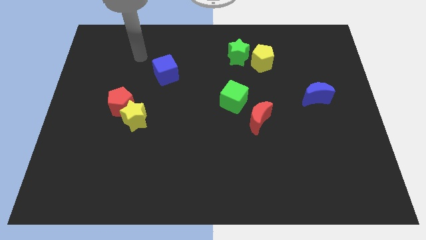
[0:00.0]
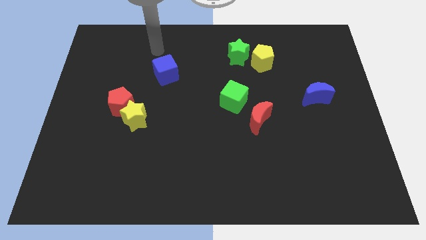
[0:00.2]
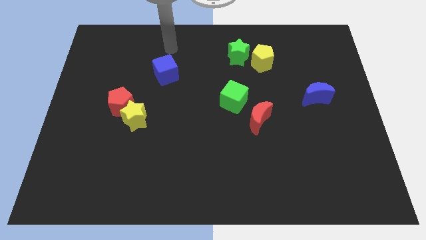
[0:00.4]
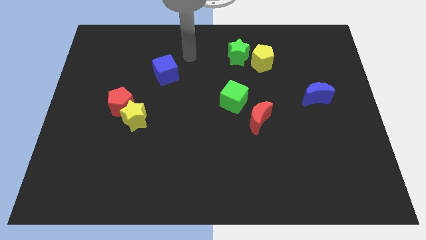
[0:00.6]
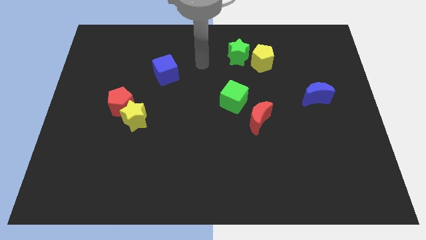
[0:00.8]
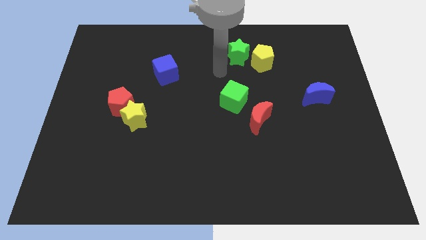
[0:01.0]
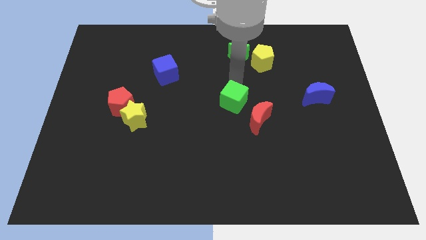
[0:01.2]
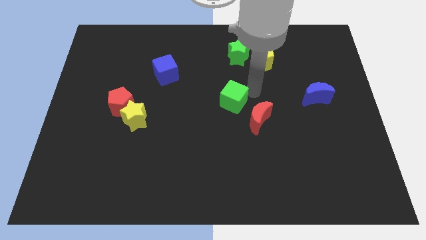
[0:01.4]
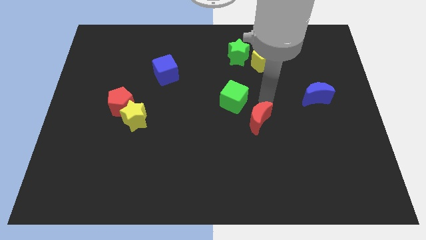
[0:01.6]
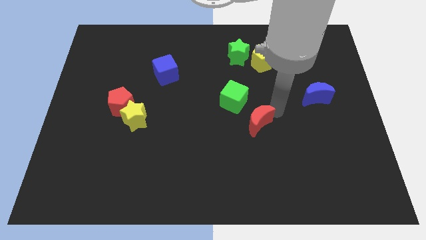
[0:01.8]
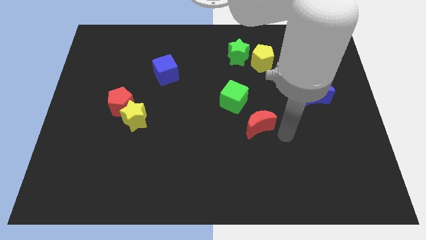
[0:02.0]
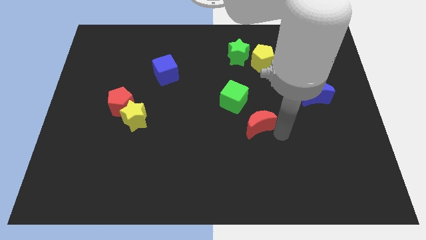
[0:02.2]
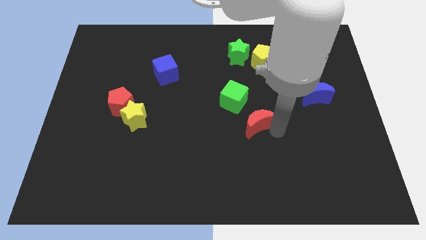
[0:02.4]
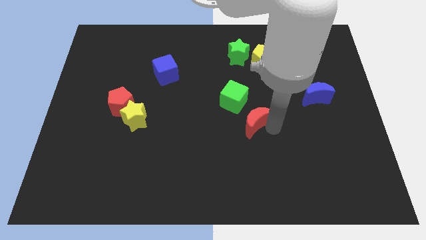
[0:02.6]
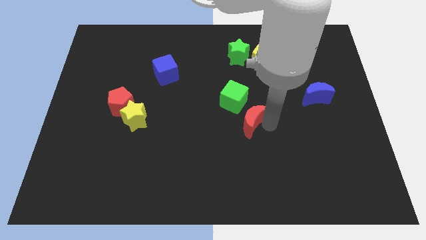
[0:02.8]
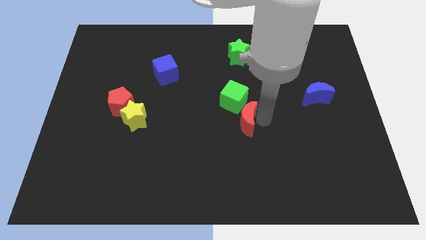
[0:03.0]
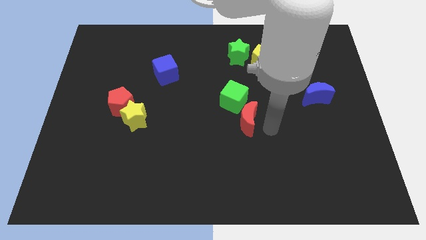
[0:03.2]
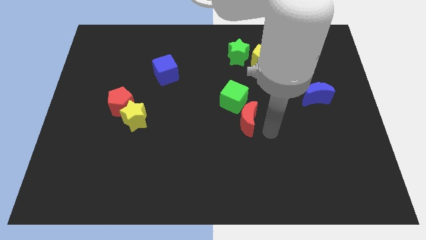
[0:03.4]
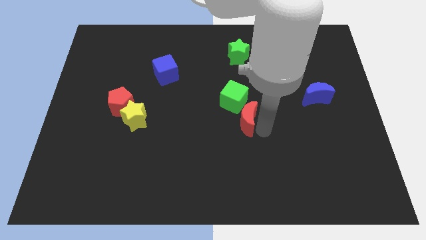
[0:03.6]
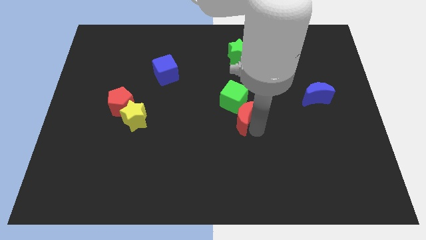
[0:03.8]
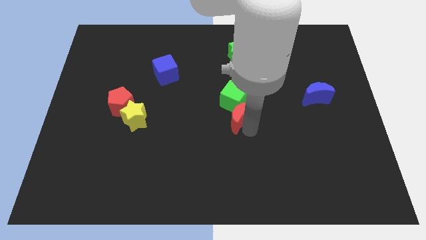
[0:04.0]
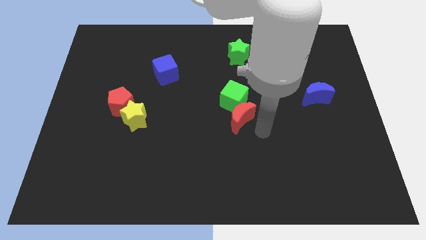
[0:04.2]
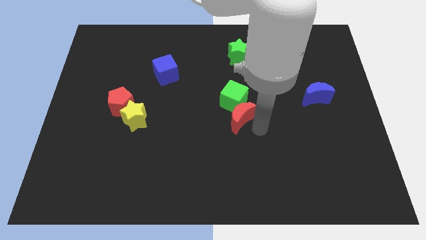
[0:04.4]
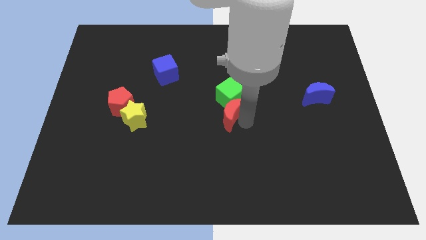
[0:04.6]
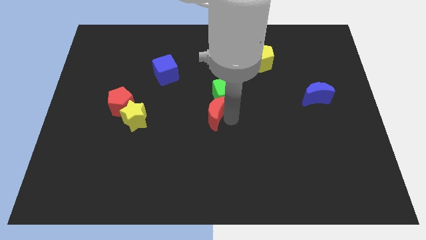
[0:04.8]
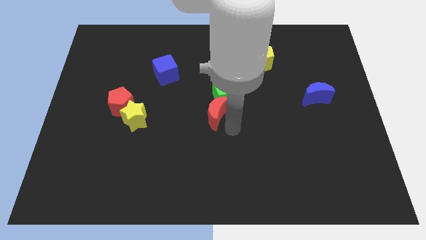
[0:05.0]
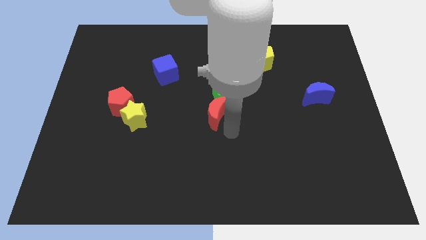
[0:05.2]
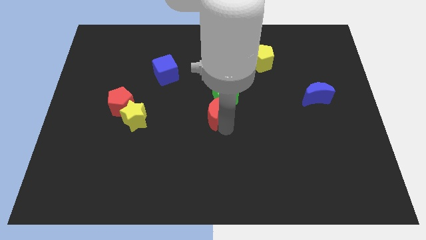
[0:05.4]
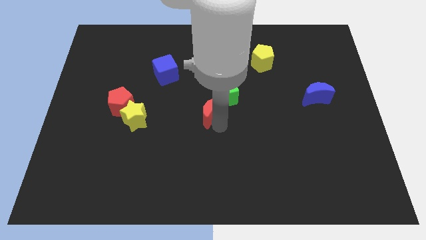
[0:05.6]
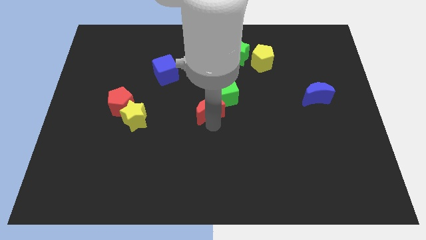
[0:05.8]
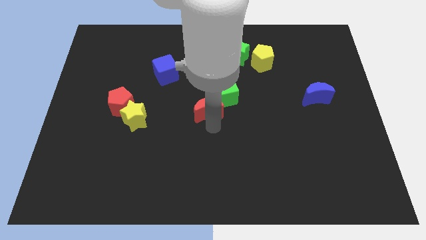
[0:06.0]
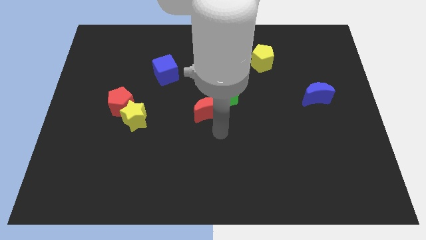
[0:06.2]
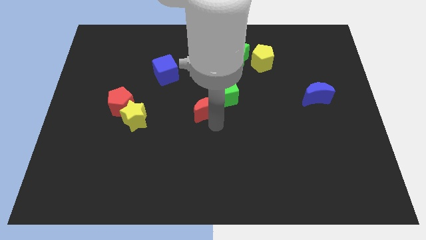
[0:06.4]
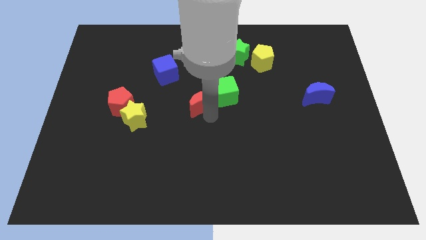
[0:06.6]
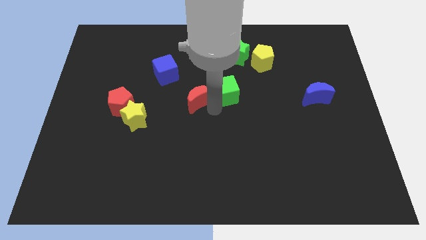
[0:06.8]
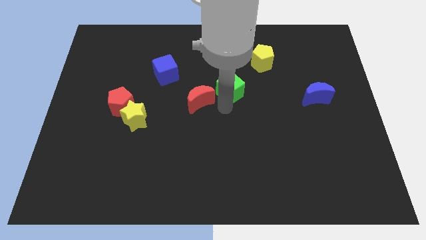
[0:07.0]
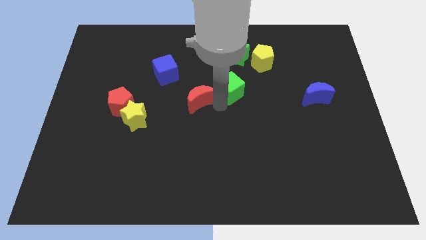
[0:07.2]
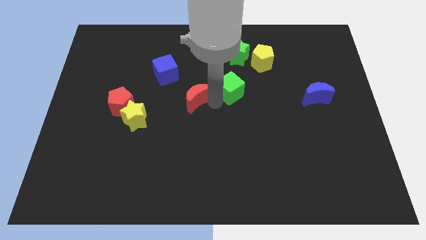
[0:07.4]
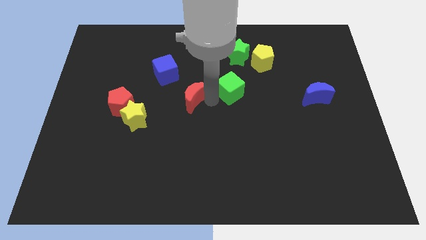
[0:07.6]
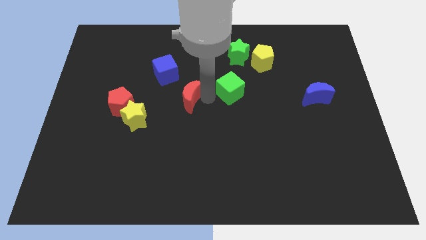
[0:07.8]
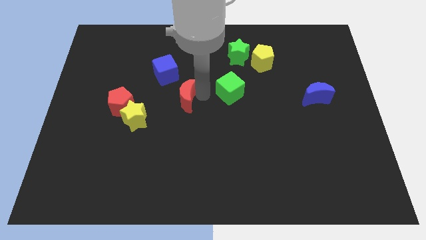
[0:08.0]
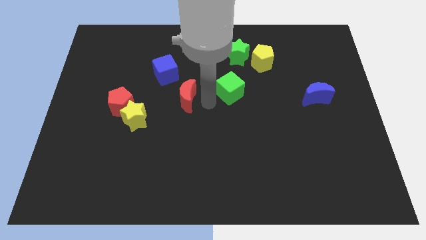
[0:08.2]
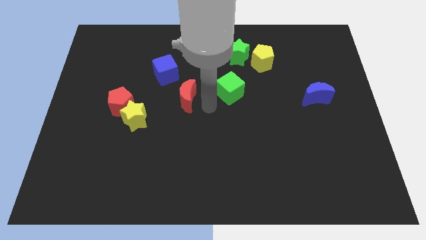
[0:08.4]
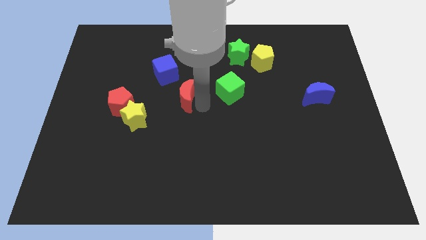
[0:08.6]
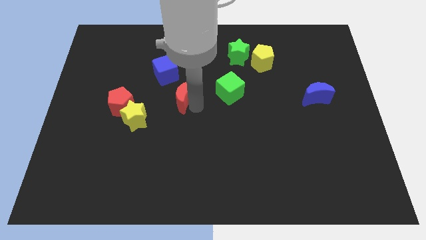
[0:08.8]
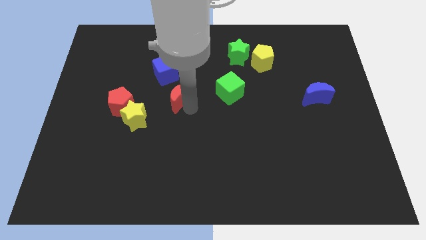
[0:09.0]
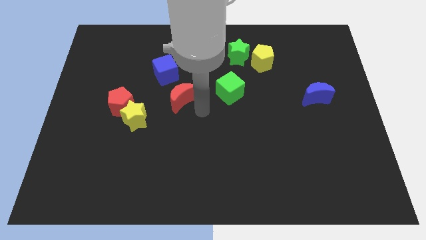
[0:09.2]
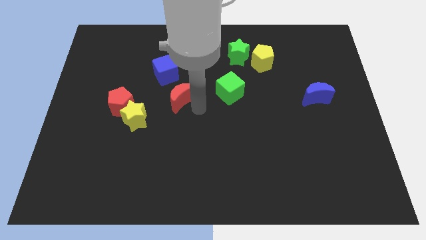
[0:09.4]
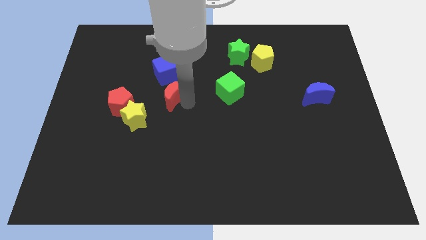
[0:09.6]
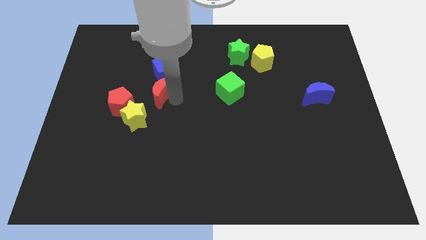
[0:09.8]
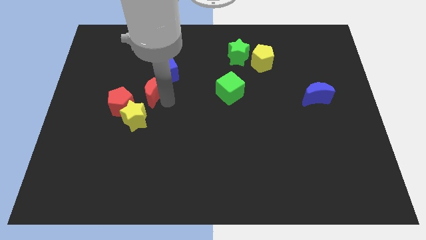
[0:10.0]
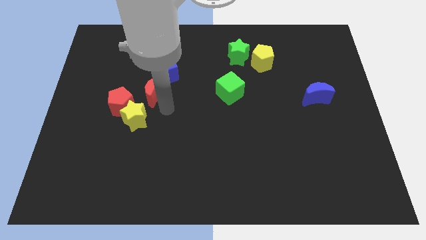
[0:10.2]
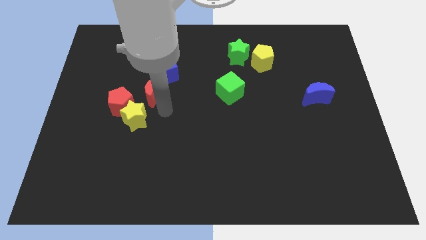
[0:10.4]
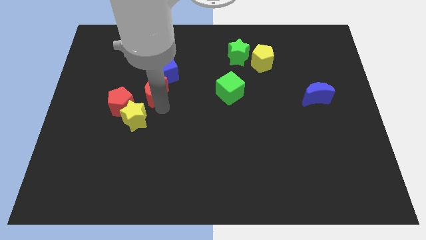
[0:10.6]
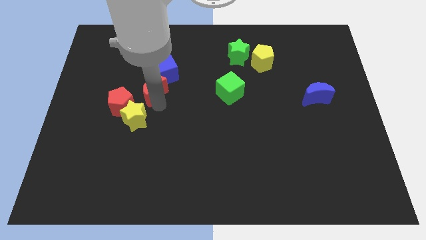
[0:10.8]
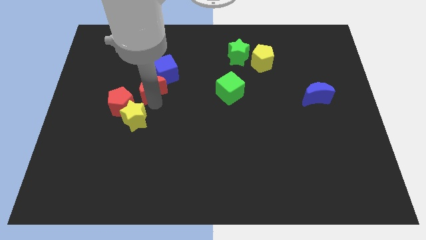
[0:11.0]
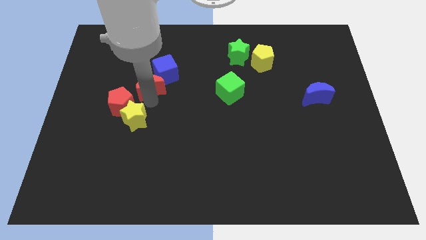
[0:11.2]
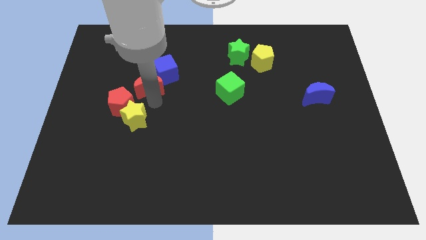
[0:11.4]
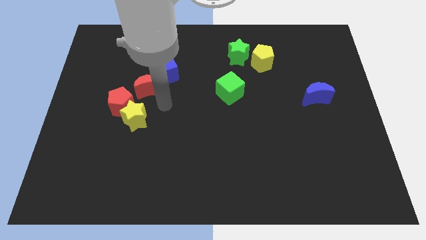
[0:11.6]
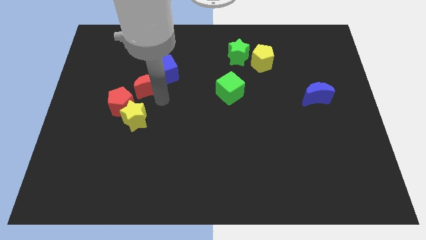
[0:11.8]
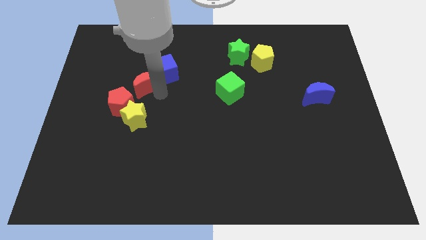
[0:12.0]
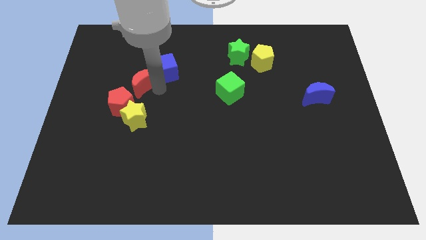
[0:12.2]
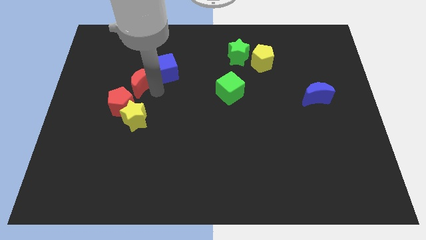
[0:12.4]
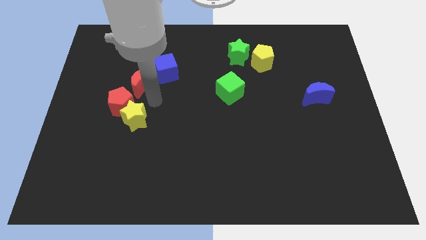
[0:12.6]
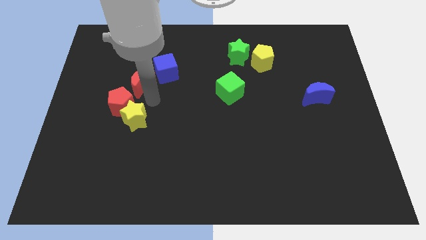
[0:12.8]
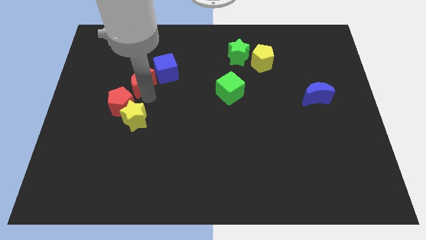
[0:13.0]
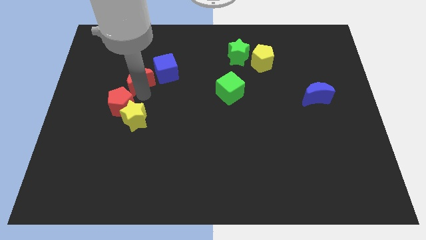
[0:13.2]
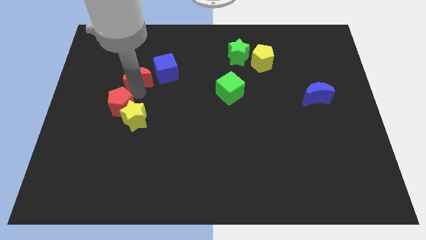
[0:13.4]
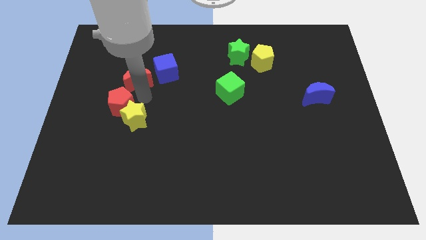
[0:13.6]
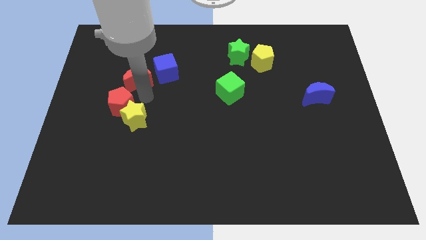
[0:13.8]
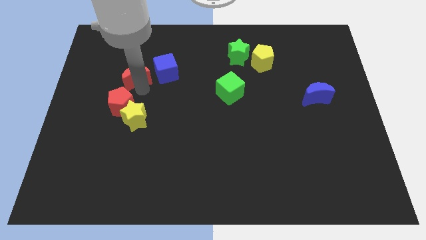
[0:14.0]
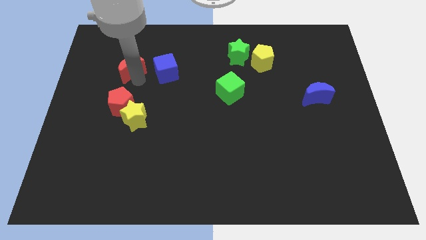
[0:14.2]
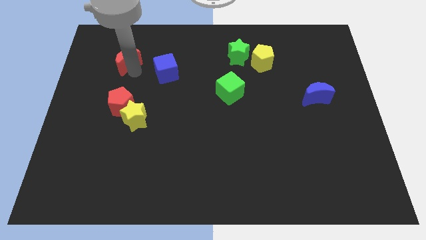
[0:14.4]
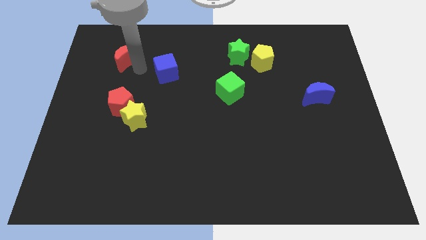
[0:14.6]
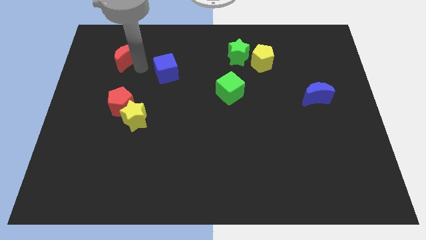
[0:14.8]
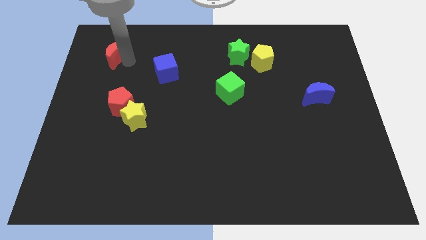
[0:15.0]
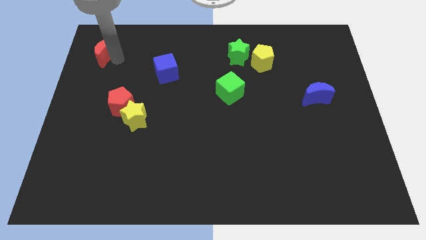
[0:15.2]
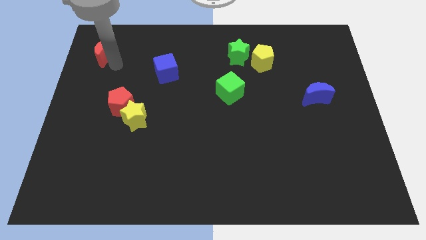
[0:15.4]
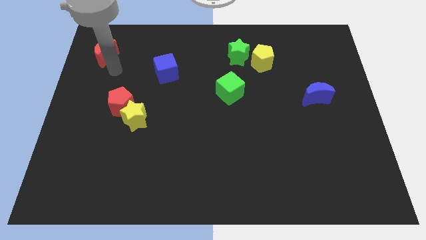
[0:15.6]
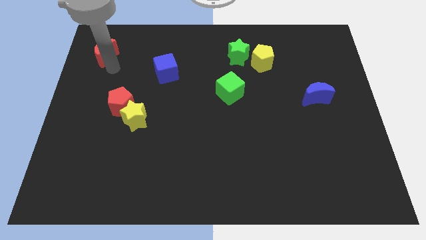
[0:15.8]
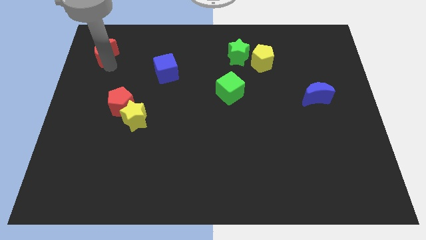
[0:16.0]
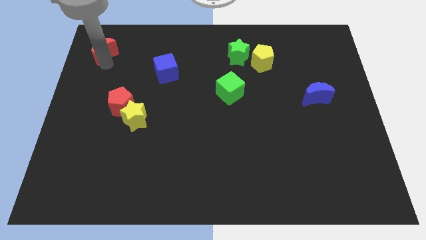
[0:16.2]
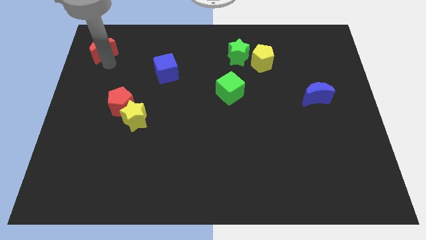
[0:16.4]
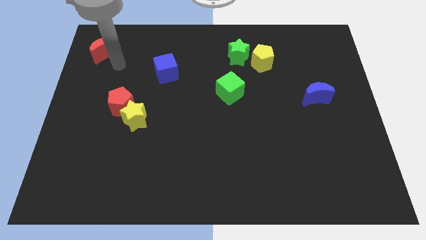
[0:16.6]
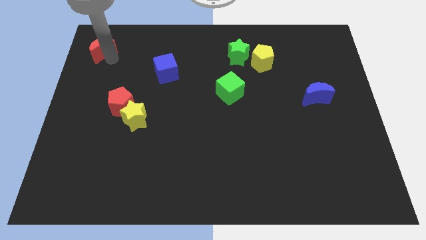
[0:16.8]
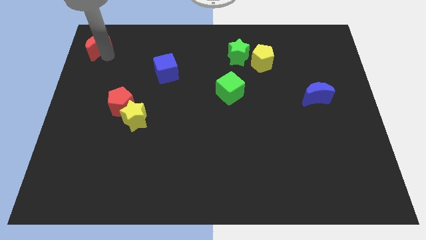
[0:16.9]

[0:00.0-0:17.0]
push the red moon to the top left
